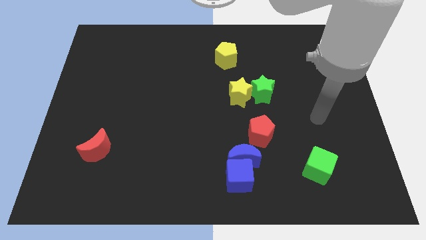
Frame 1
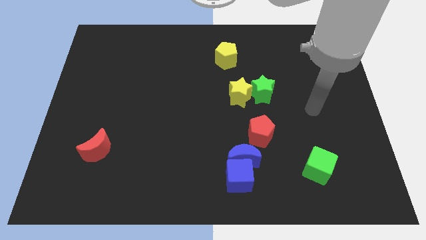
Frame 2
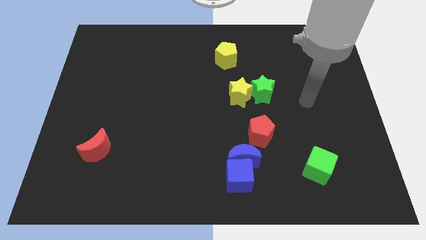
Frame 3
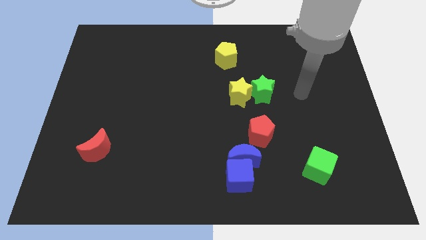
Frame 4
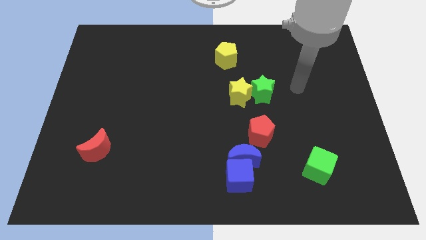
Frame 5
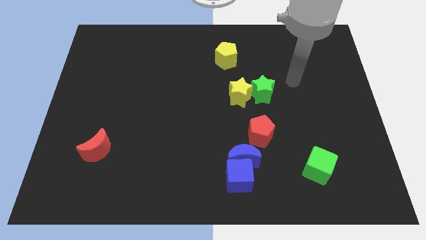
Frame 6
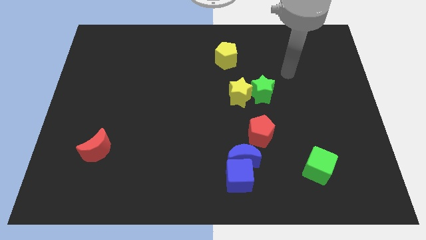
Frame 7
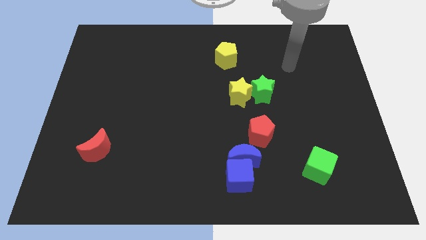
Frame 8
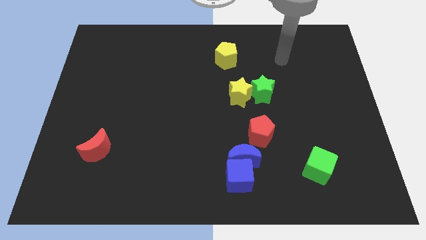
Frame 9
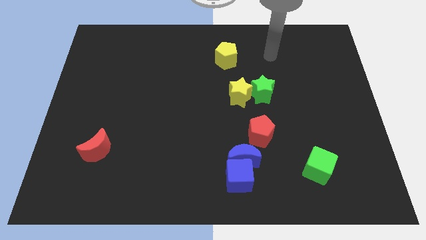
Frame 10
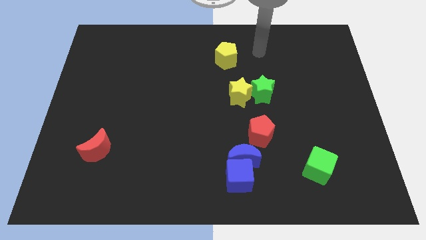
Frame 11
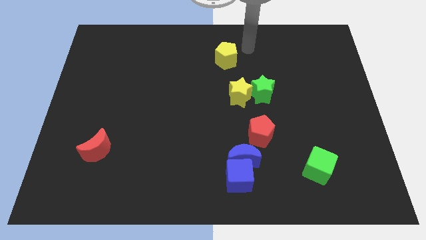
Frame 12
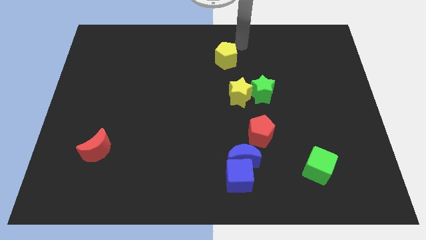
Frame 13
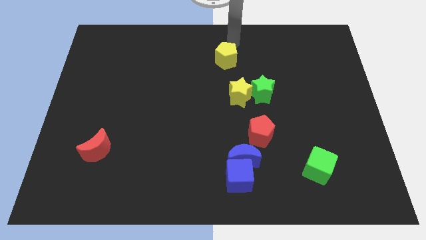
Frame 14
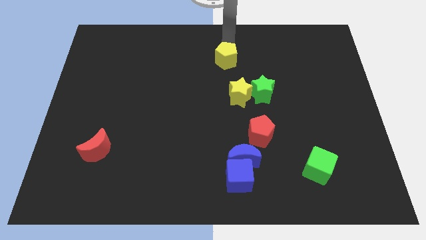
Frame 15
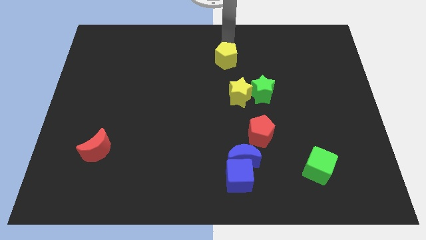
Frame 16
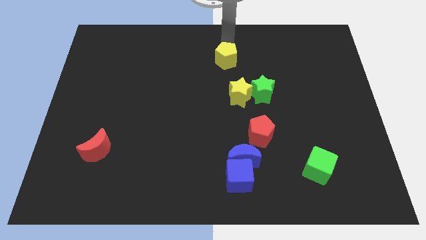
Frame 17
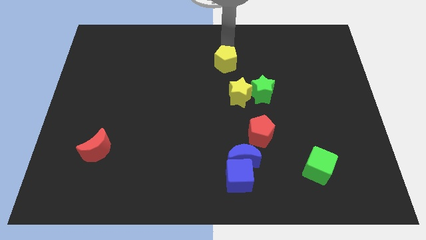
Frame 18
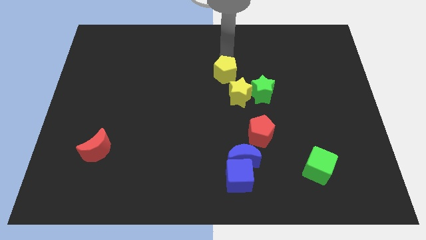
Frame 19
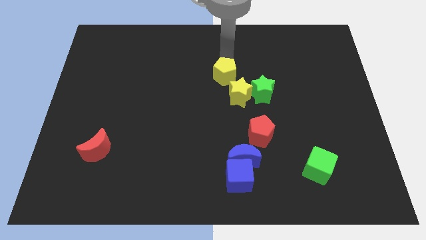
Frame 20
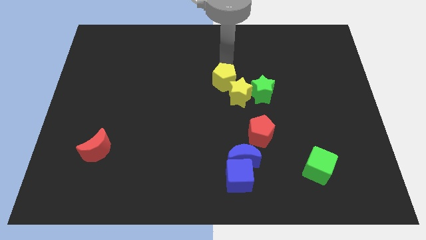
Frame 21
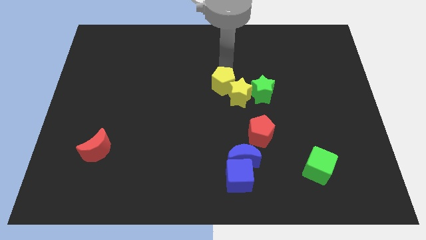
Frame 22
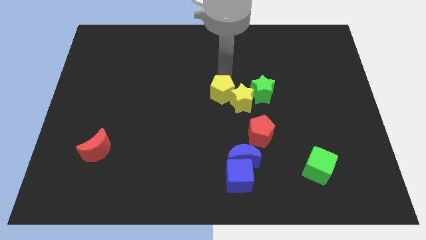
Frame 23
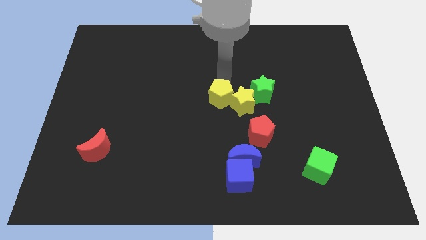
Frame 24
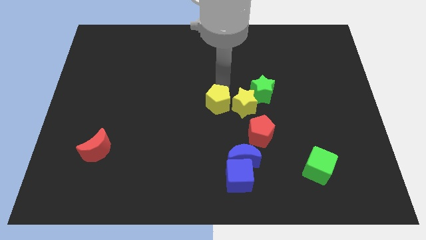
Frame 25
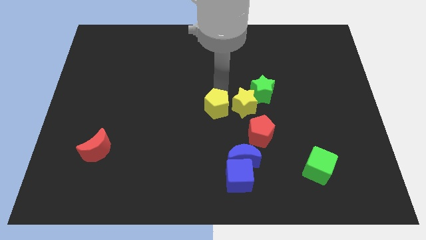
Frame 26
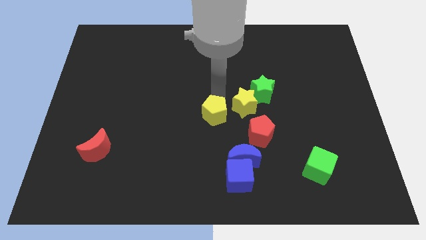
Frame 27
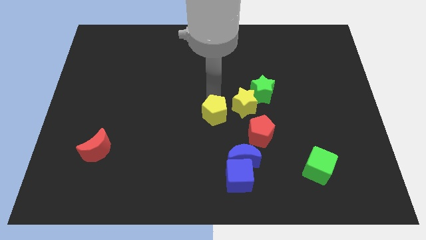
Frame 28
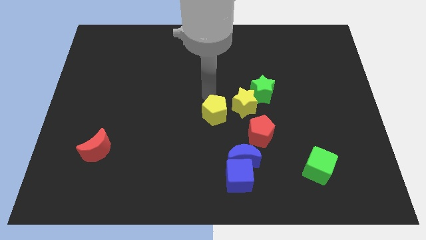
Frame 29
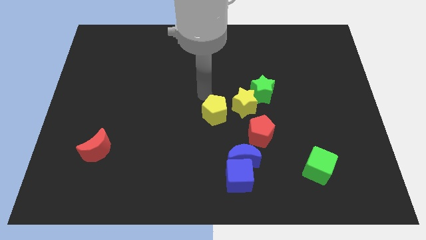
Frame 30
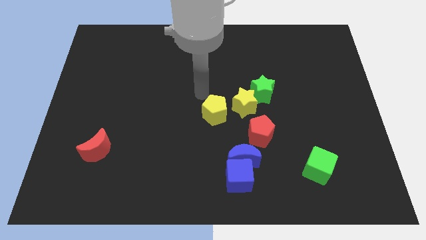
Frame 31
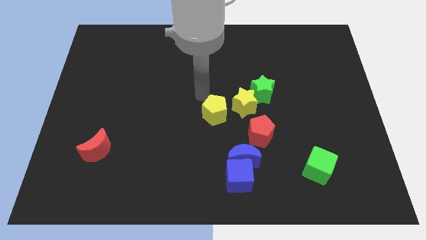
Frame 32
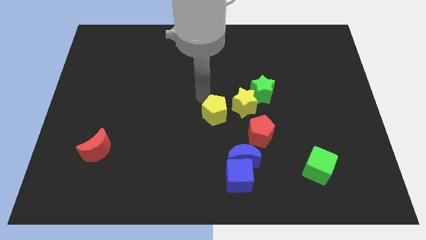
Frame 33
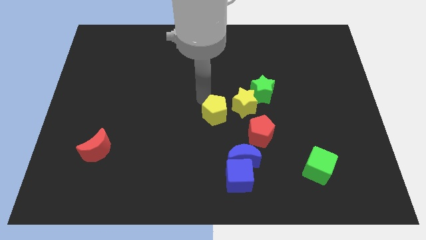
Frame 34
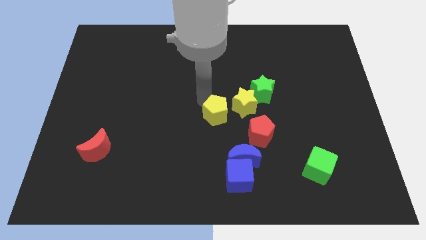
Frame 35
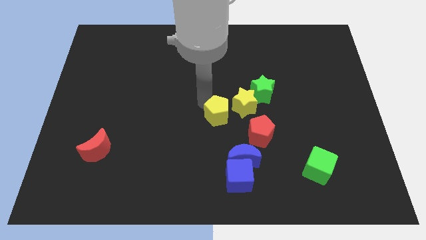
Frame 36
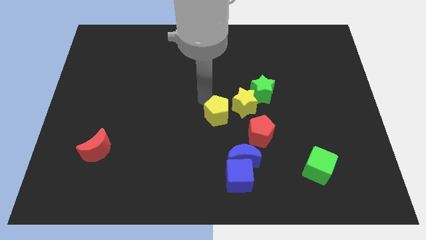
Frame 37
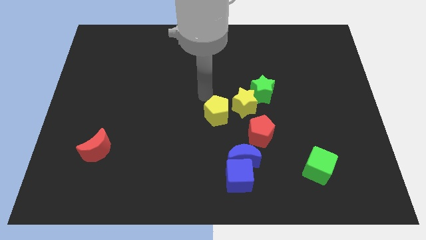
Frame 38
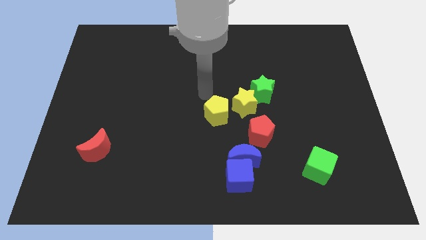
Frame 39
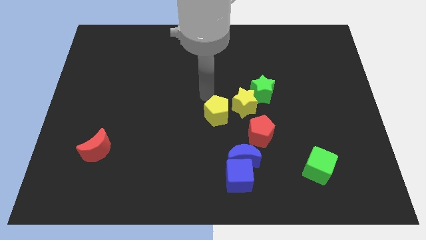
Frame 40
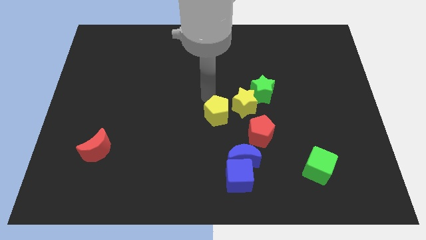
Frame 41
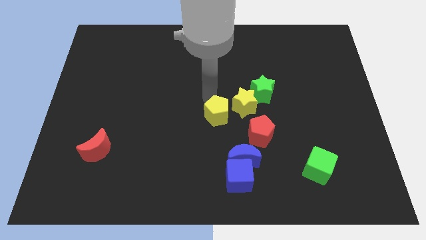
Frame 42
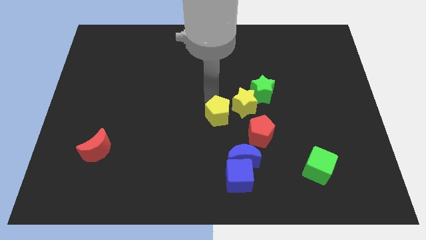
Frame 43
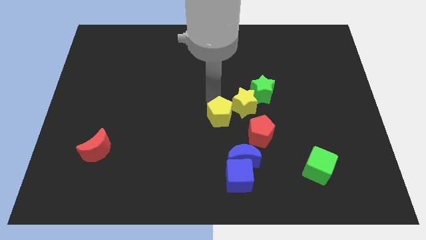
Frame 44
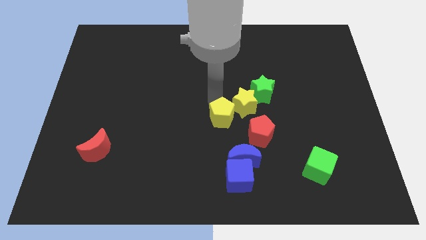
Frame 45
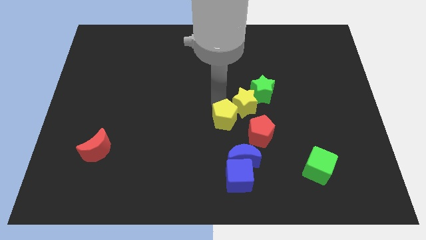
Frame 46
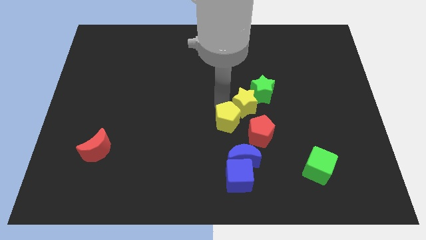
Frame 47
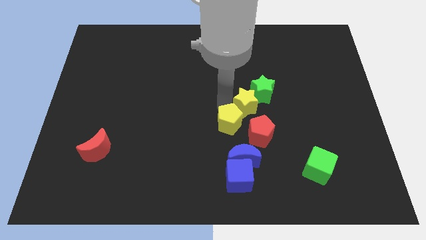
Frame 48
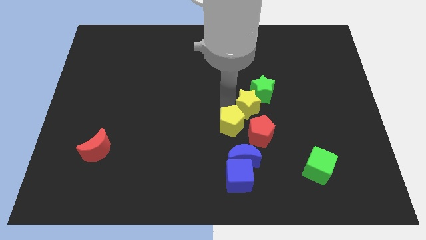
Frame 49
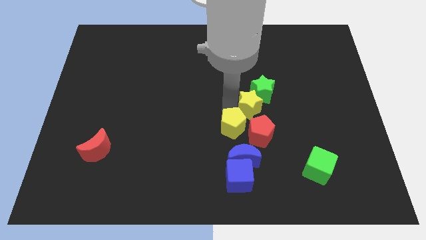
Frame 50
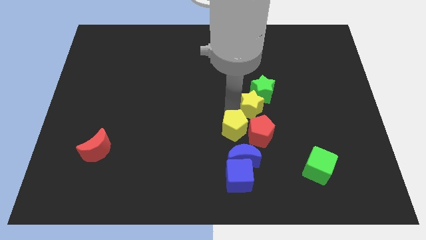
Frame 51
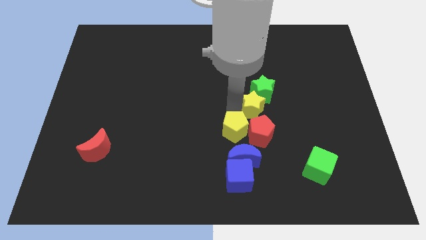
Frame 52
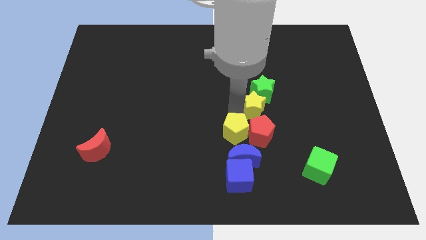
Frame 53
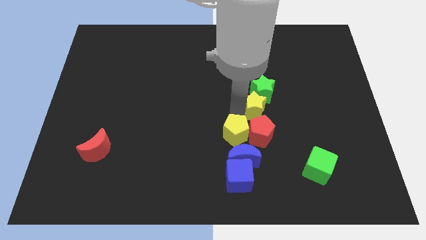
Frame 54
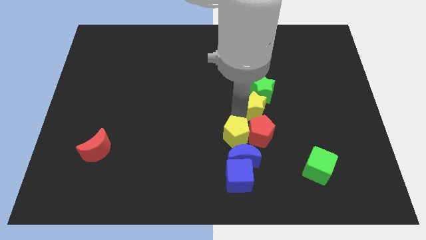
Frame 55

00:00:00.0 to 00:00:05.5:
put the yellow pentagon towards the blue moon

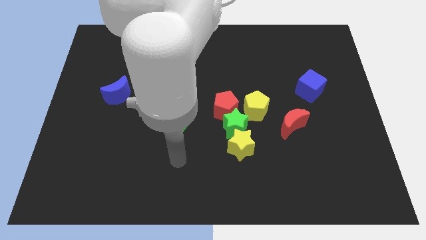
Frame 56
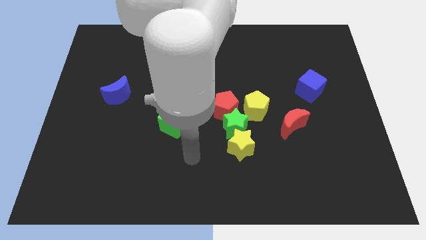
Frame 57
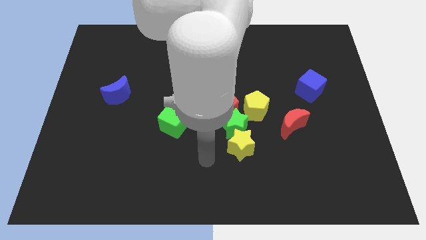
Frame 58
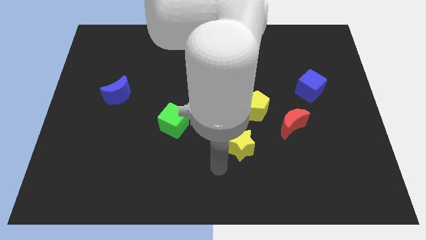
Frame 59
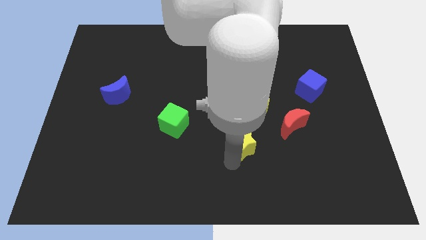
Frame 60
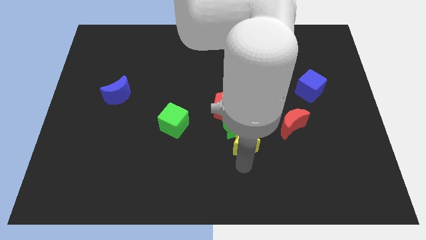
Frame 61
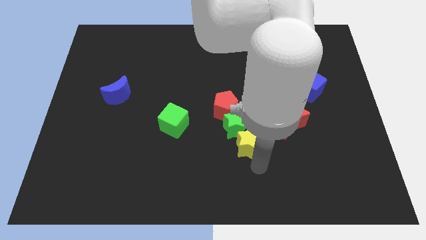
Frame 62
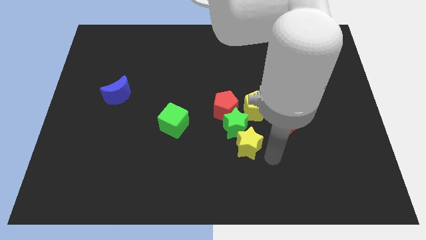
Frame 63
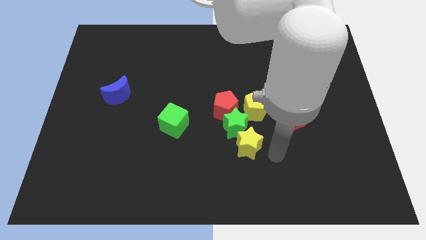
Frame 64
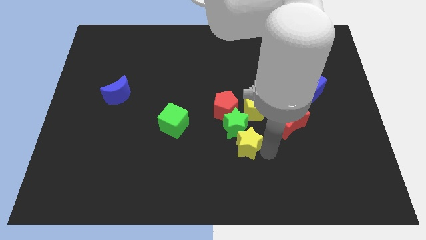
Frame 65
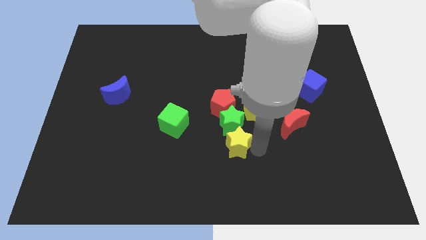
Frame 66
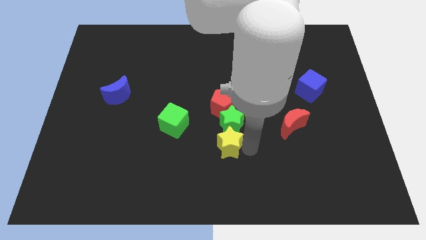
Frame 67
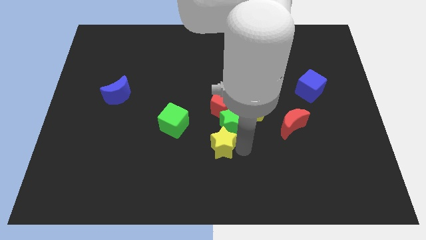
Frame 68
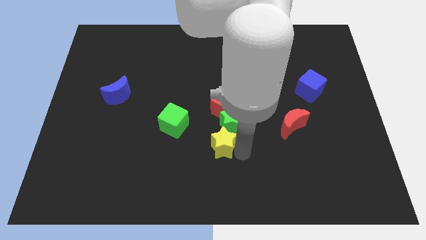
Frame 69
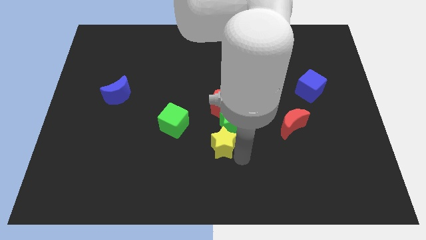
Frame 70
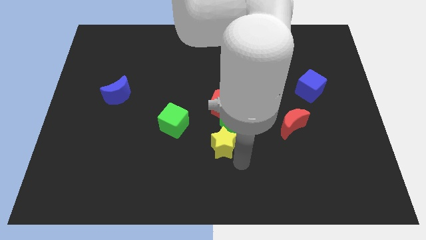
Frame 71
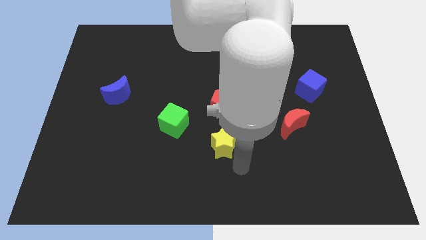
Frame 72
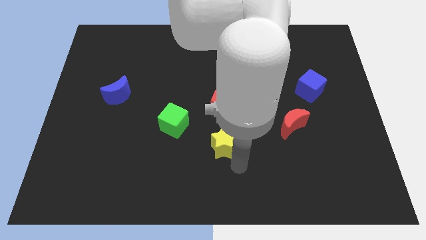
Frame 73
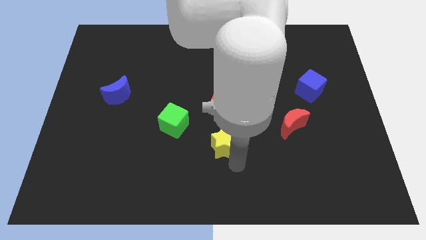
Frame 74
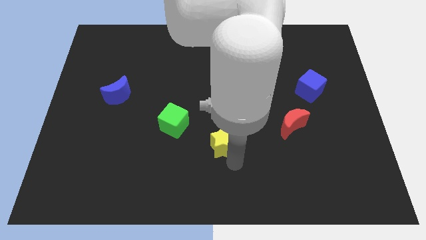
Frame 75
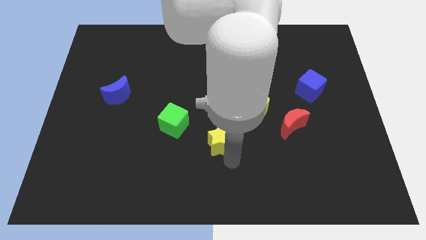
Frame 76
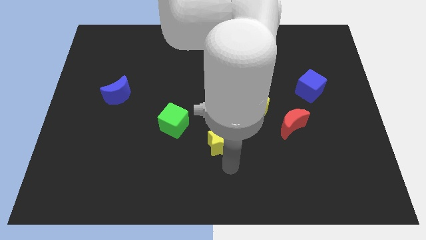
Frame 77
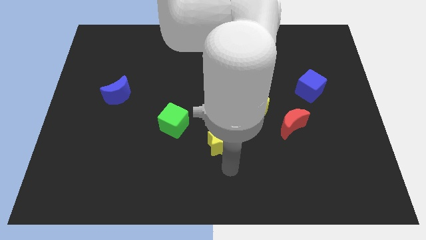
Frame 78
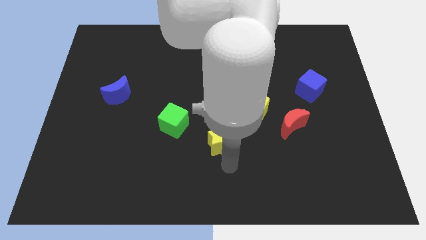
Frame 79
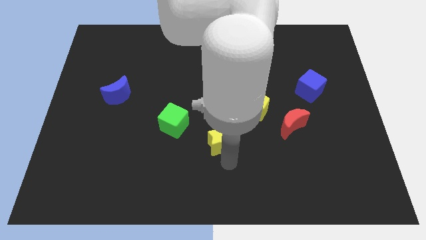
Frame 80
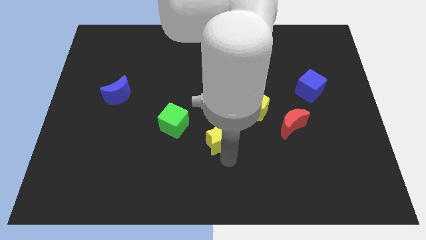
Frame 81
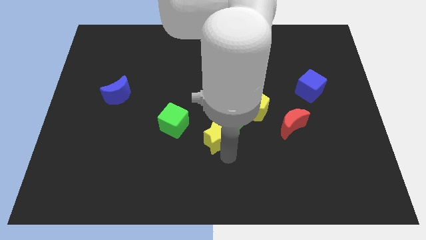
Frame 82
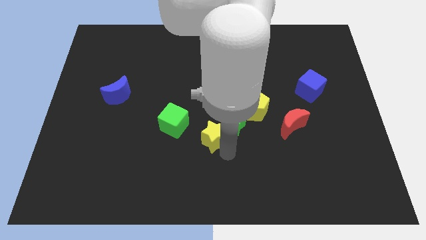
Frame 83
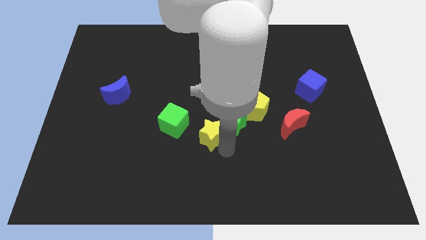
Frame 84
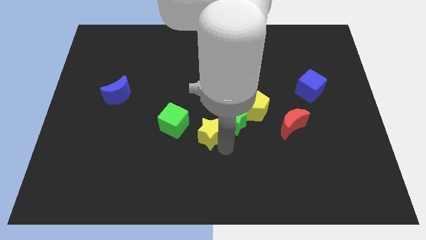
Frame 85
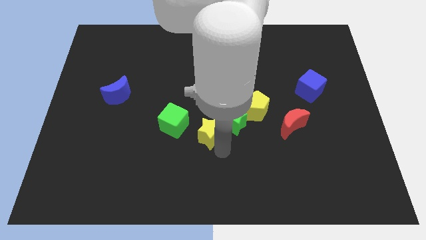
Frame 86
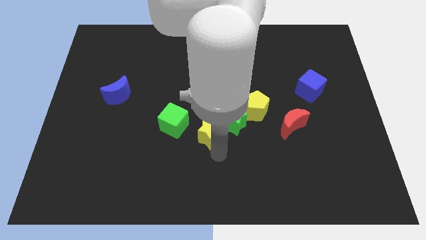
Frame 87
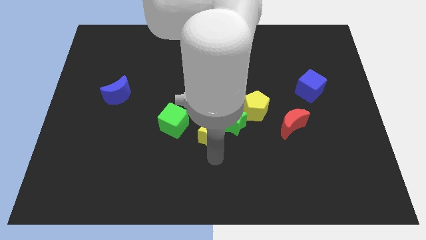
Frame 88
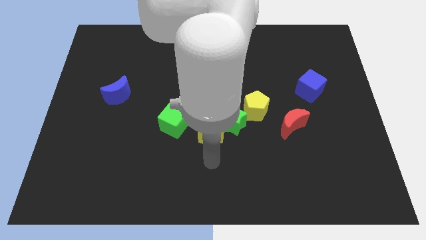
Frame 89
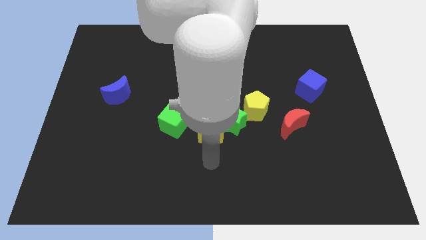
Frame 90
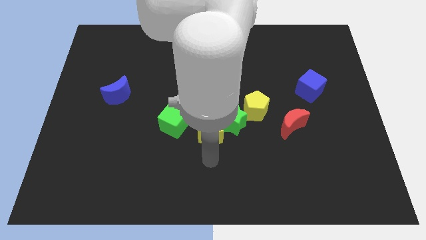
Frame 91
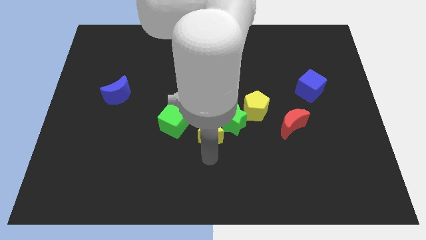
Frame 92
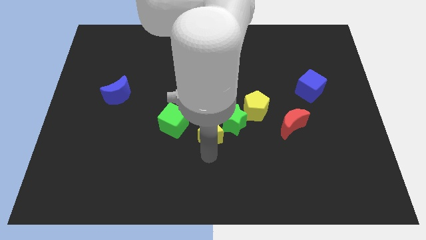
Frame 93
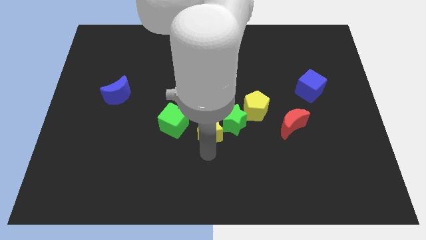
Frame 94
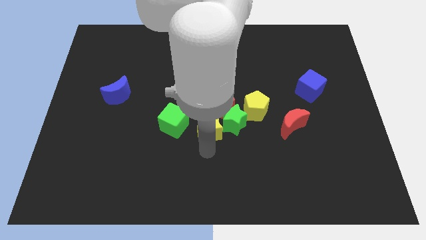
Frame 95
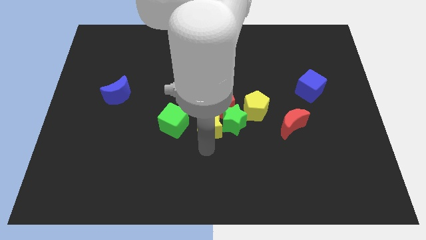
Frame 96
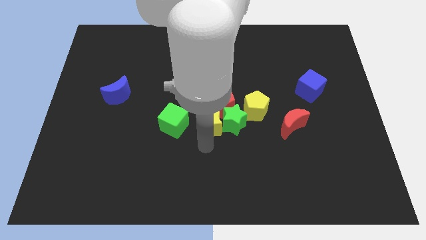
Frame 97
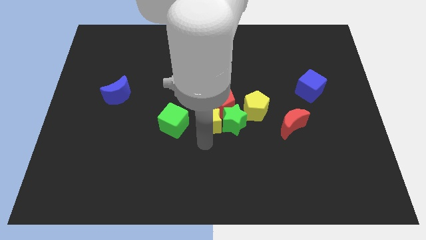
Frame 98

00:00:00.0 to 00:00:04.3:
put the yellow star towards the red pentagon
